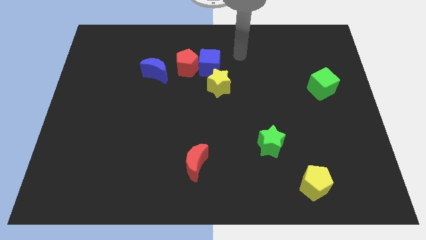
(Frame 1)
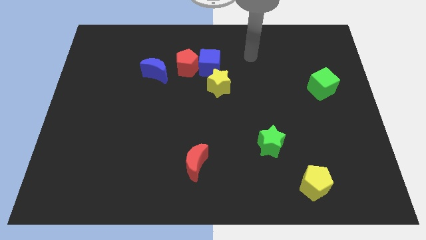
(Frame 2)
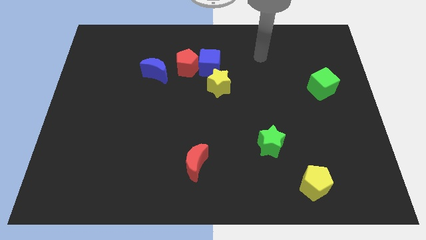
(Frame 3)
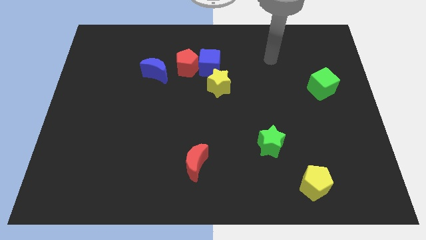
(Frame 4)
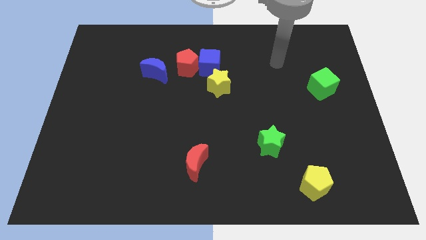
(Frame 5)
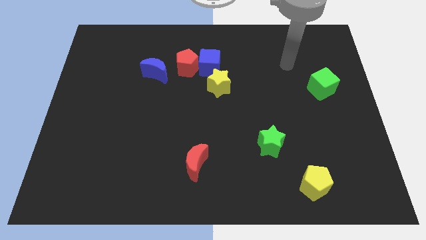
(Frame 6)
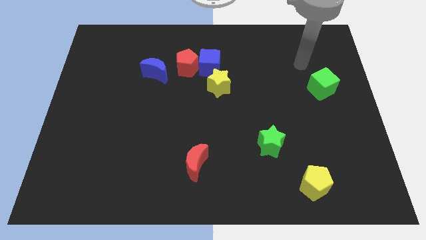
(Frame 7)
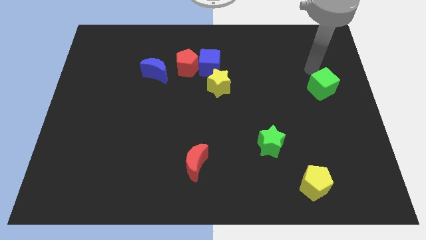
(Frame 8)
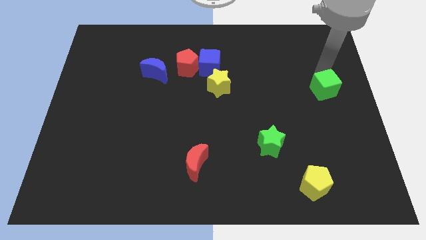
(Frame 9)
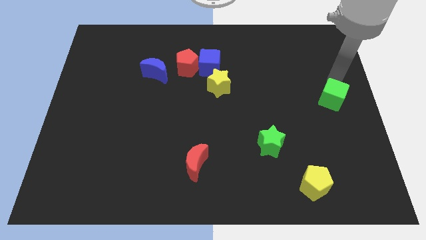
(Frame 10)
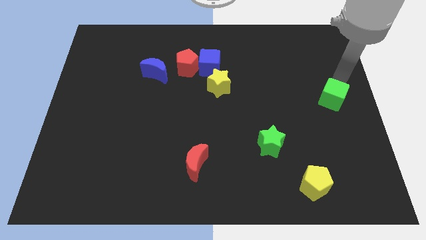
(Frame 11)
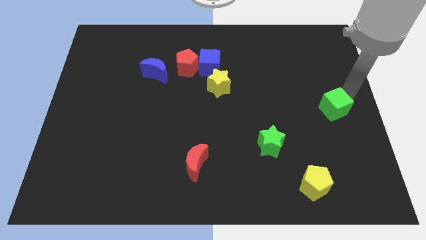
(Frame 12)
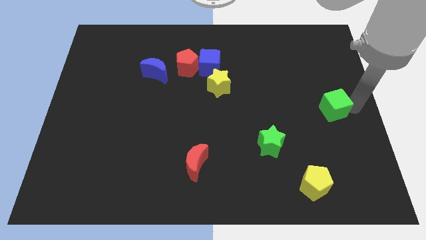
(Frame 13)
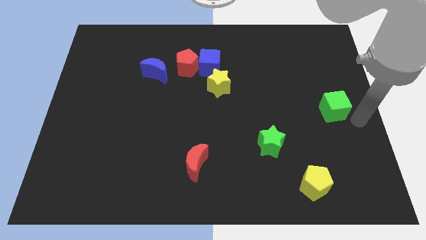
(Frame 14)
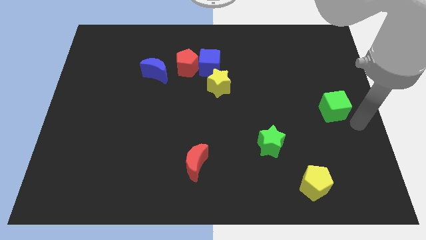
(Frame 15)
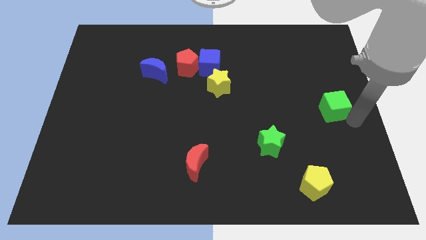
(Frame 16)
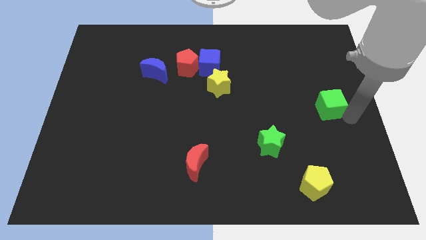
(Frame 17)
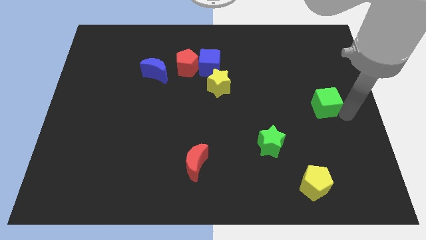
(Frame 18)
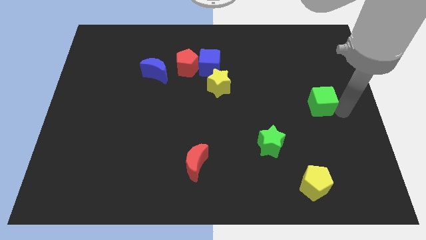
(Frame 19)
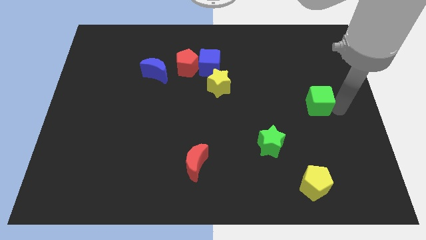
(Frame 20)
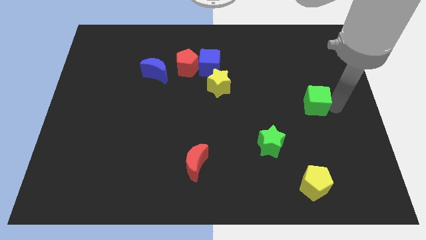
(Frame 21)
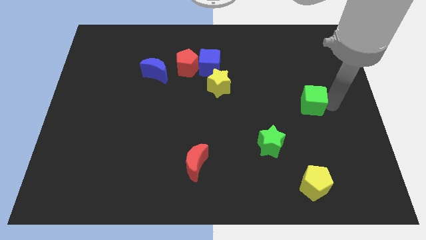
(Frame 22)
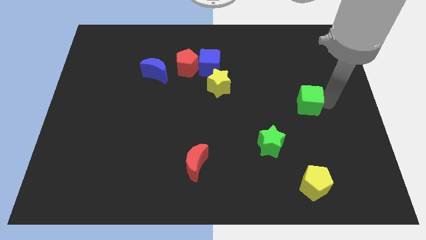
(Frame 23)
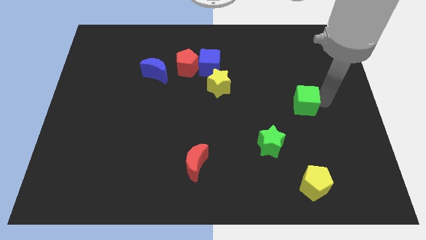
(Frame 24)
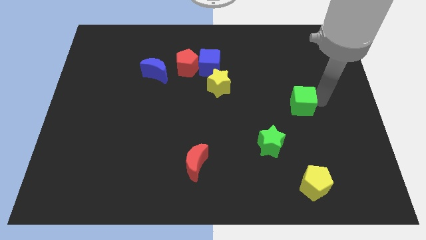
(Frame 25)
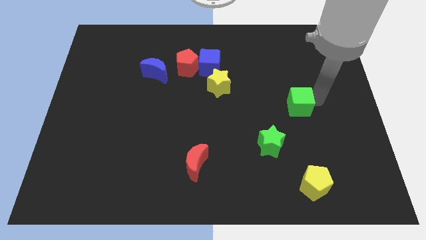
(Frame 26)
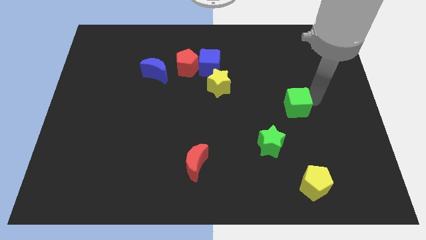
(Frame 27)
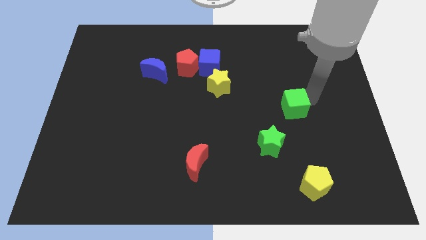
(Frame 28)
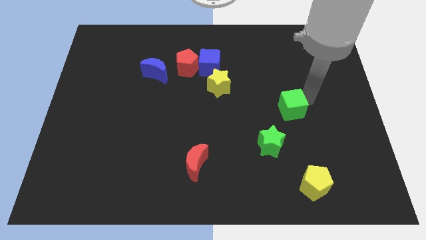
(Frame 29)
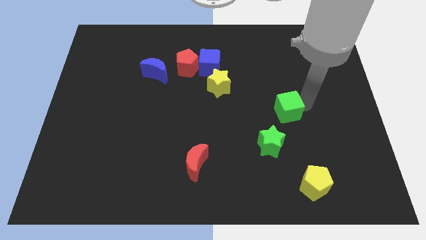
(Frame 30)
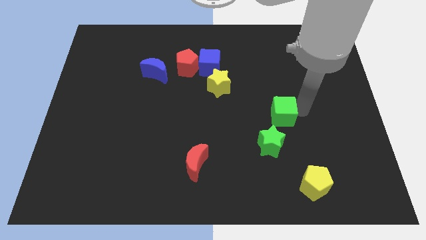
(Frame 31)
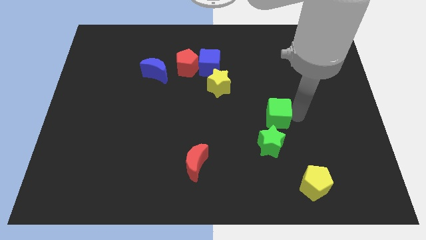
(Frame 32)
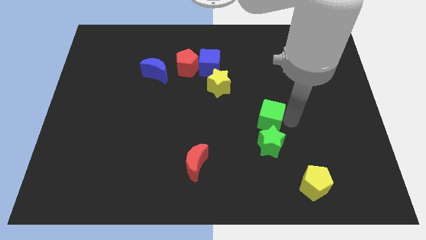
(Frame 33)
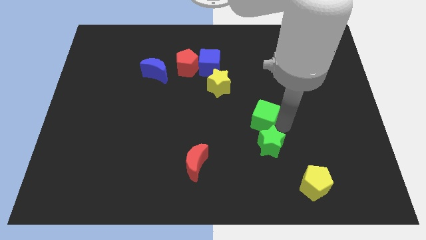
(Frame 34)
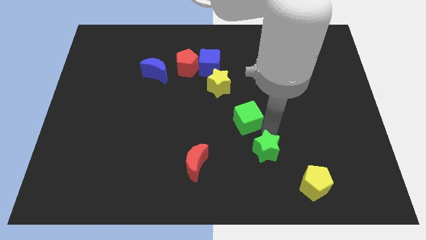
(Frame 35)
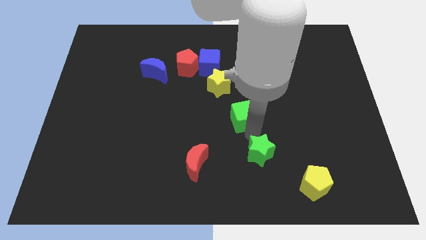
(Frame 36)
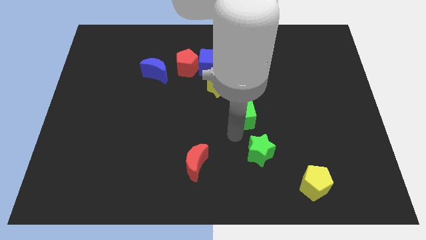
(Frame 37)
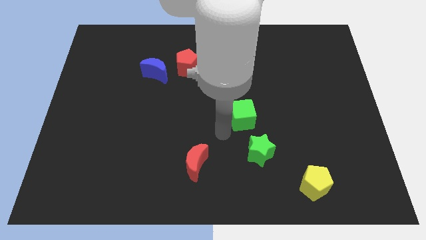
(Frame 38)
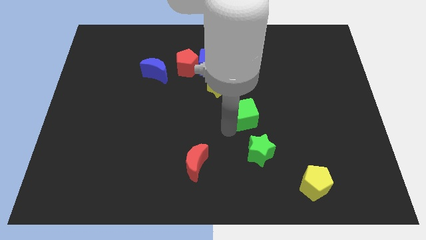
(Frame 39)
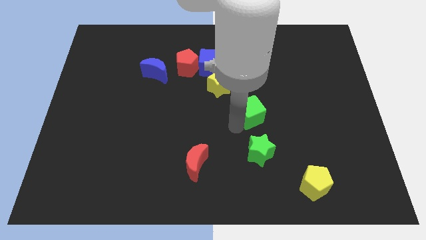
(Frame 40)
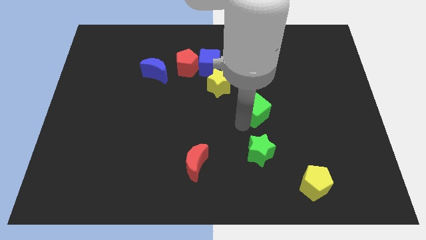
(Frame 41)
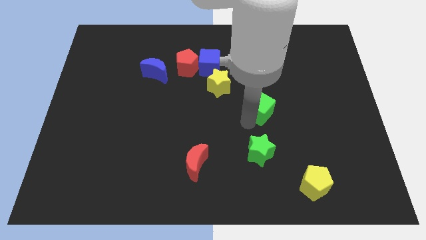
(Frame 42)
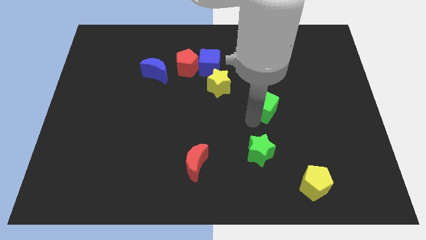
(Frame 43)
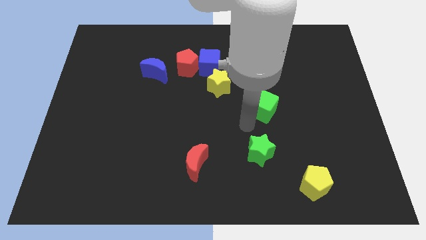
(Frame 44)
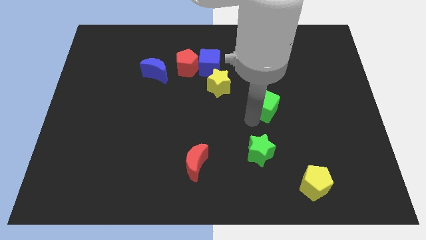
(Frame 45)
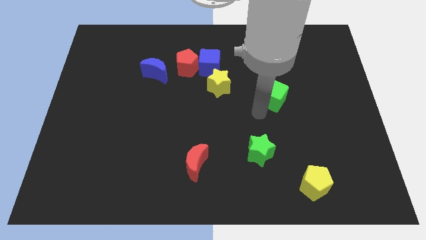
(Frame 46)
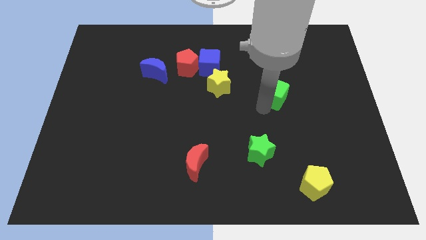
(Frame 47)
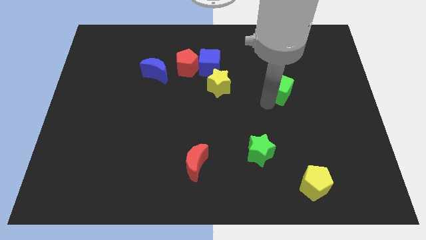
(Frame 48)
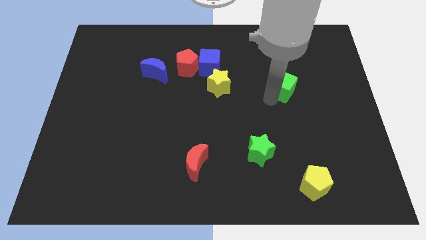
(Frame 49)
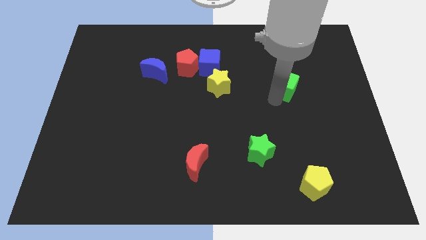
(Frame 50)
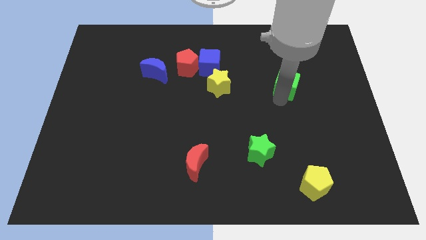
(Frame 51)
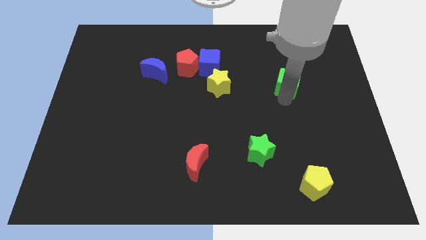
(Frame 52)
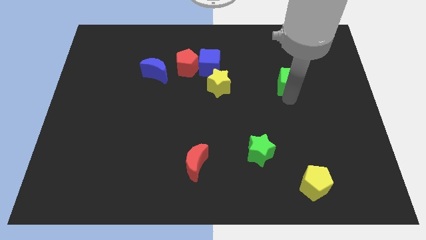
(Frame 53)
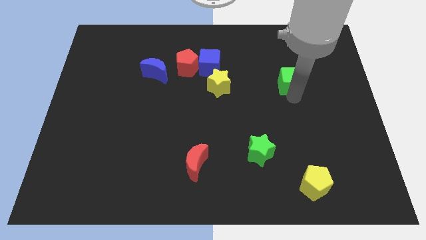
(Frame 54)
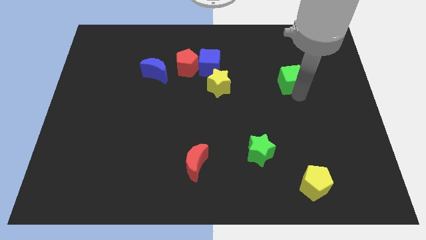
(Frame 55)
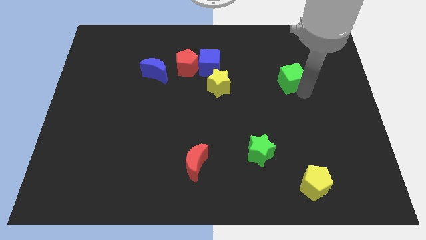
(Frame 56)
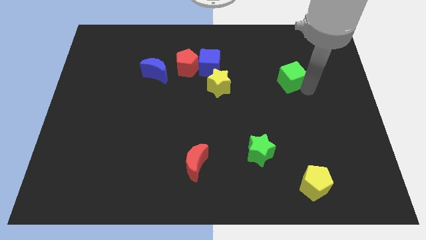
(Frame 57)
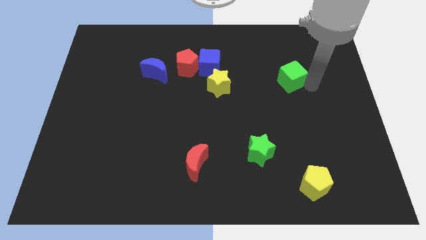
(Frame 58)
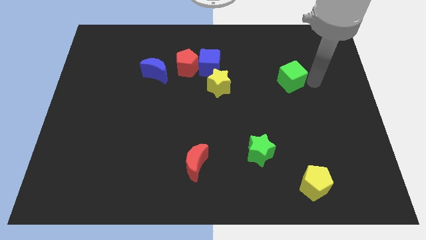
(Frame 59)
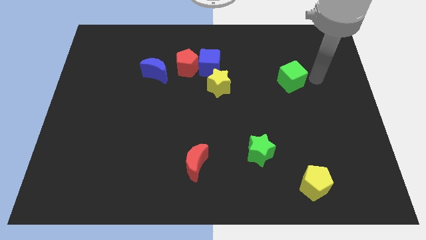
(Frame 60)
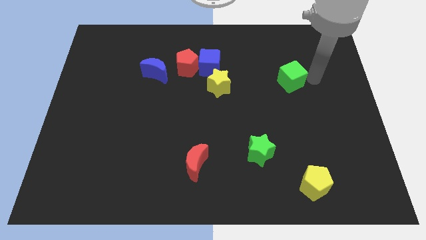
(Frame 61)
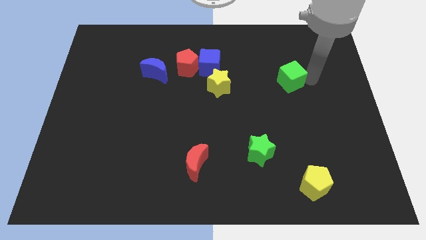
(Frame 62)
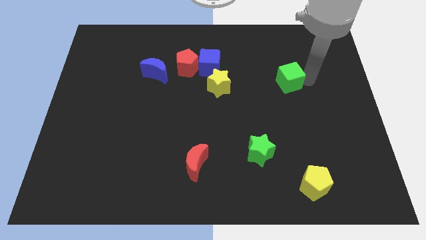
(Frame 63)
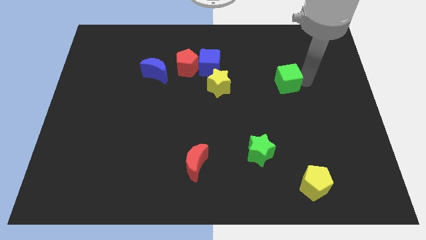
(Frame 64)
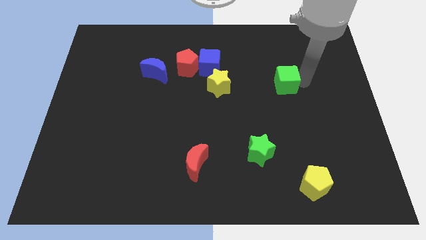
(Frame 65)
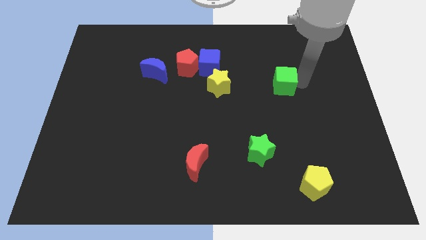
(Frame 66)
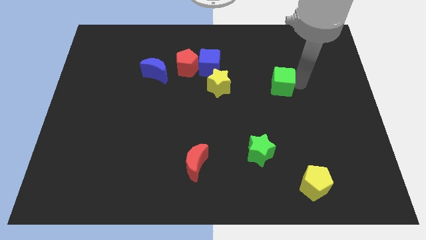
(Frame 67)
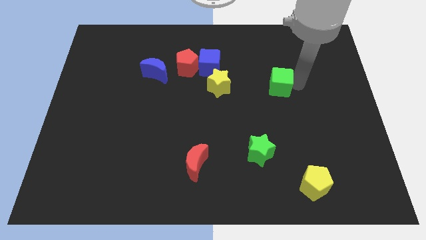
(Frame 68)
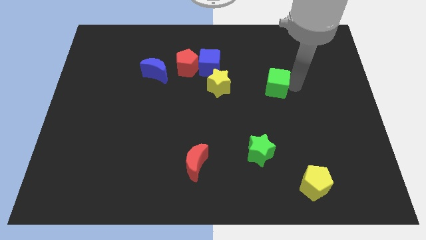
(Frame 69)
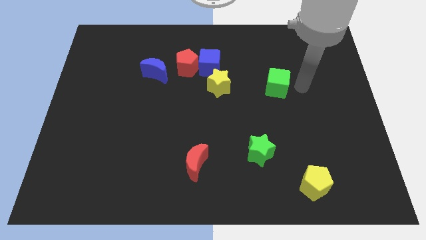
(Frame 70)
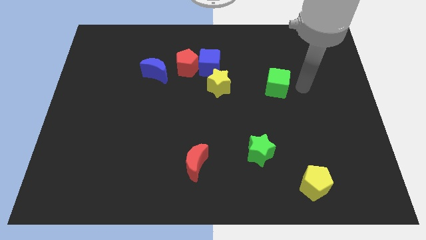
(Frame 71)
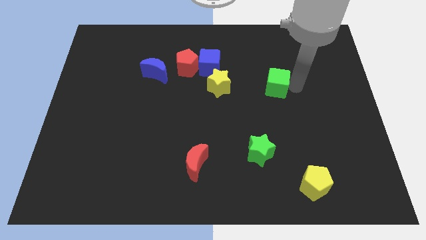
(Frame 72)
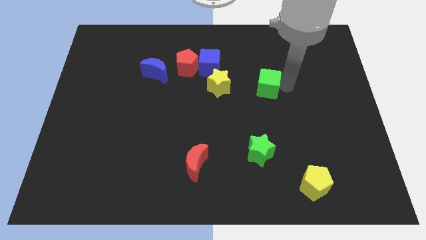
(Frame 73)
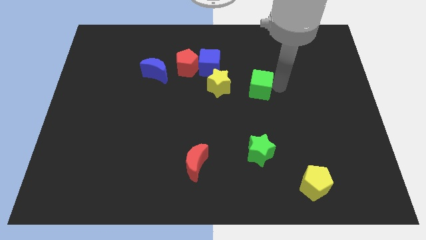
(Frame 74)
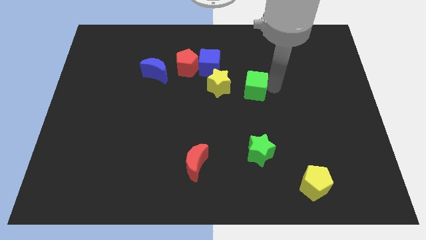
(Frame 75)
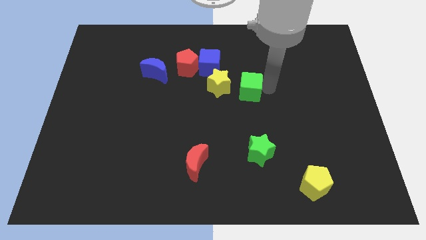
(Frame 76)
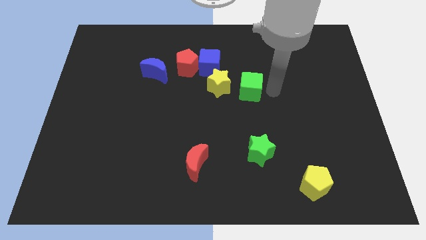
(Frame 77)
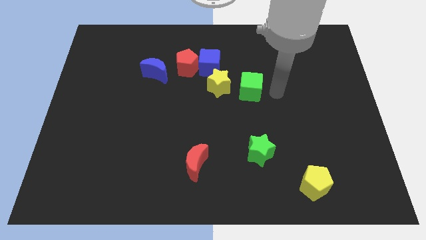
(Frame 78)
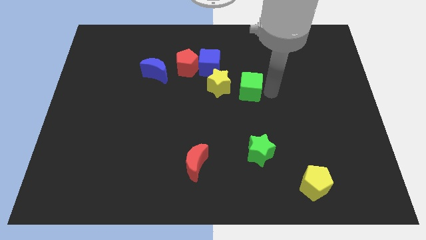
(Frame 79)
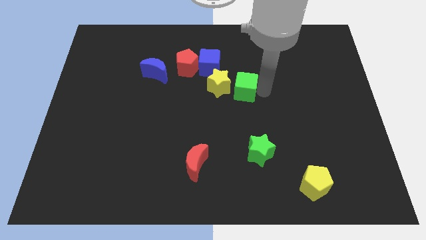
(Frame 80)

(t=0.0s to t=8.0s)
push the green cube to the yellow star

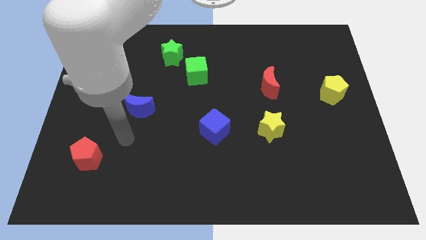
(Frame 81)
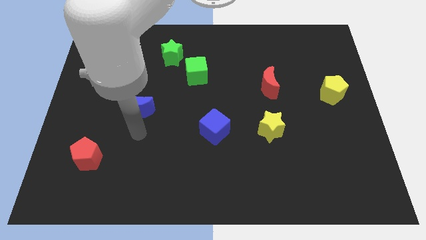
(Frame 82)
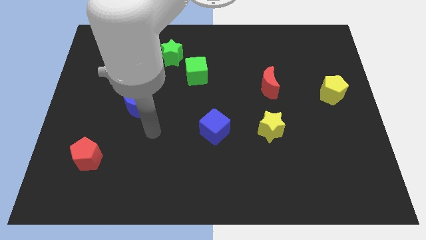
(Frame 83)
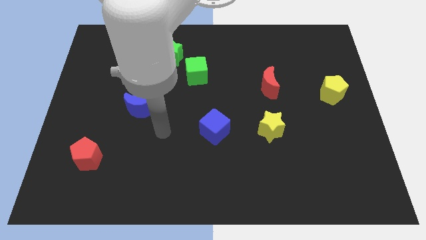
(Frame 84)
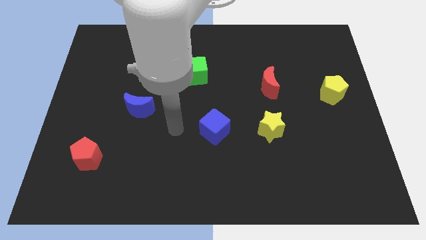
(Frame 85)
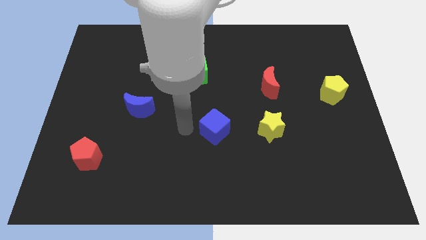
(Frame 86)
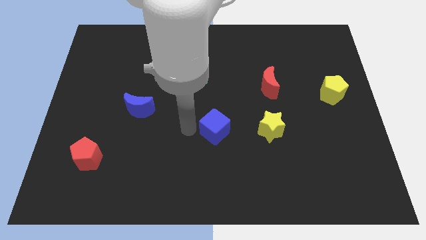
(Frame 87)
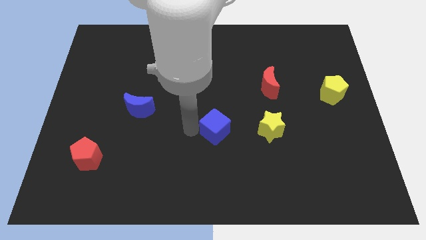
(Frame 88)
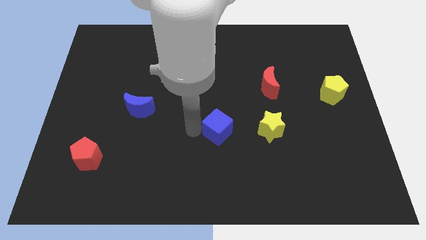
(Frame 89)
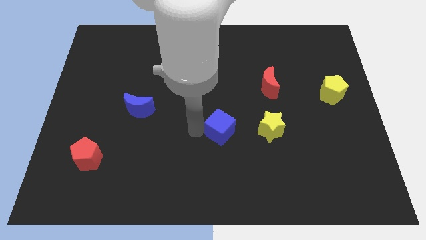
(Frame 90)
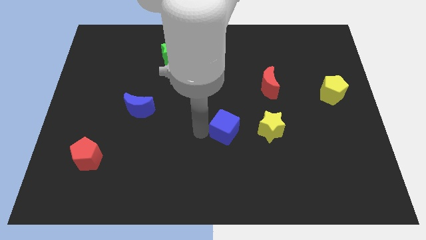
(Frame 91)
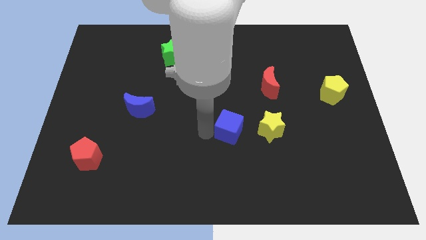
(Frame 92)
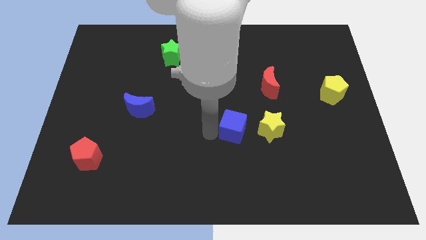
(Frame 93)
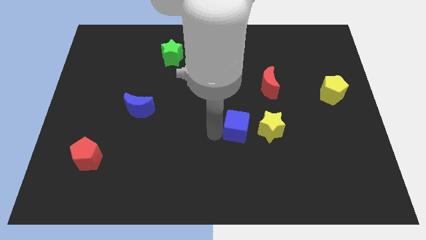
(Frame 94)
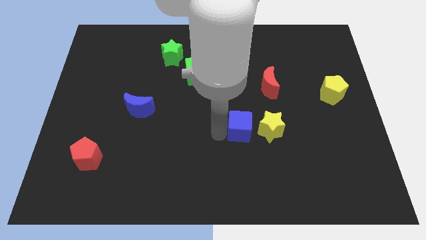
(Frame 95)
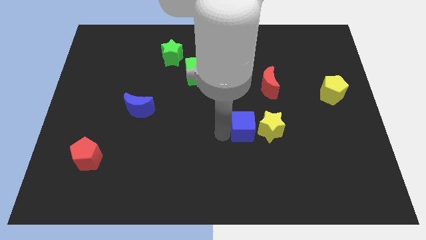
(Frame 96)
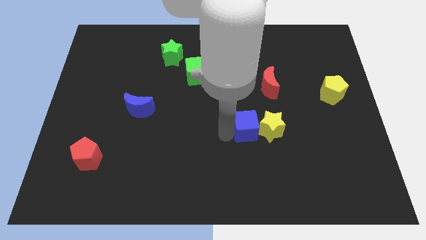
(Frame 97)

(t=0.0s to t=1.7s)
slide the blue cube towards the yellow star
